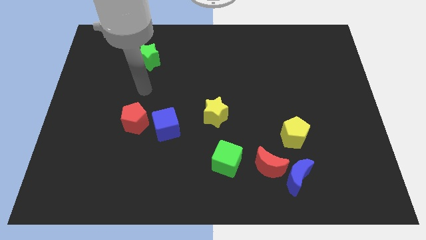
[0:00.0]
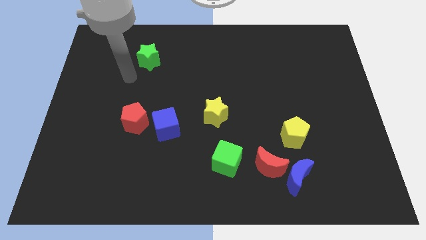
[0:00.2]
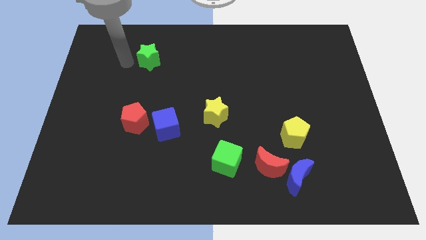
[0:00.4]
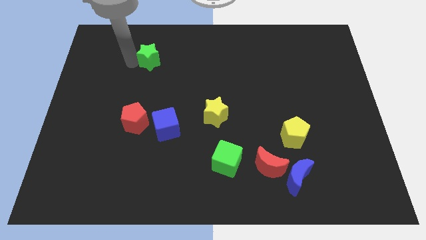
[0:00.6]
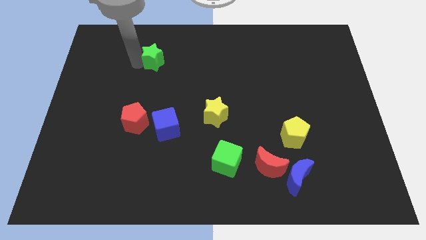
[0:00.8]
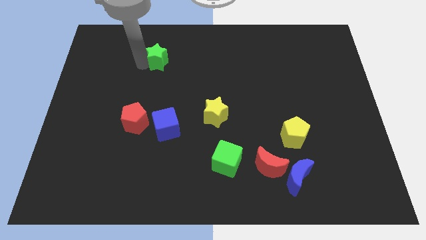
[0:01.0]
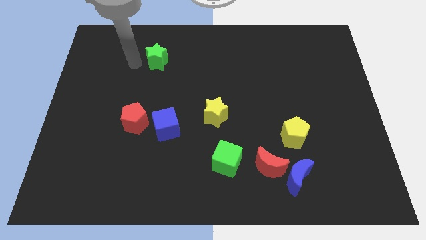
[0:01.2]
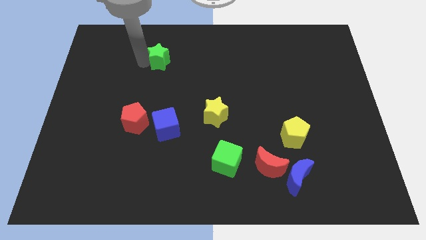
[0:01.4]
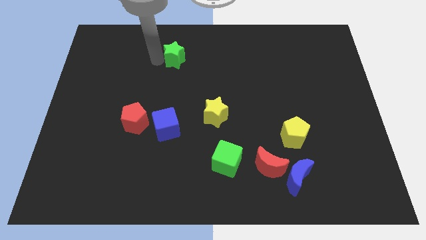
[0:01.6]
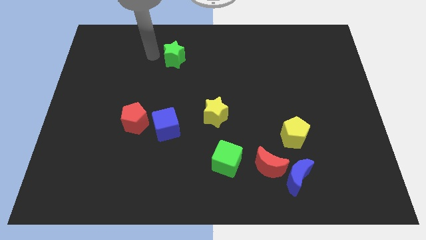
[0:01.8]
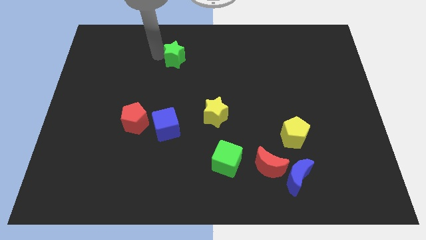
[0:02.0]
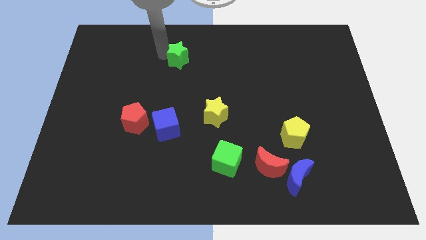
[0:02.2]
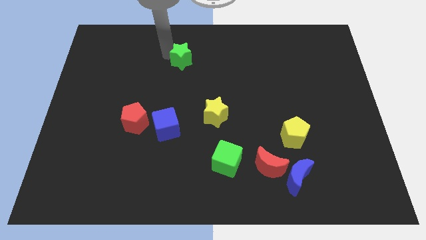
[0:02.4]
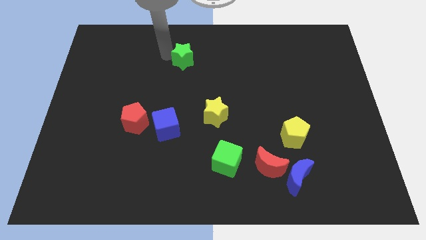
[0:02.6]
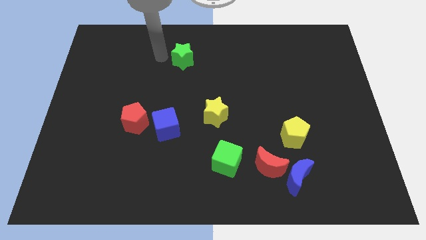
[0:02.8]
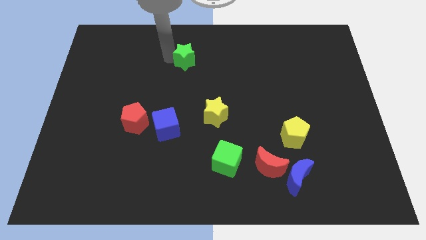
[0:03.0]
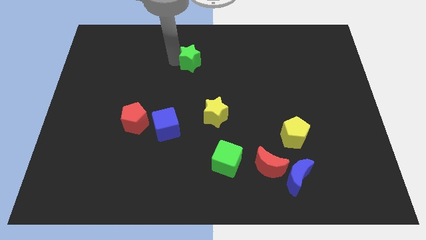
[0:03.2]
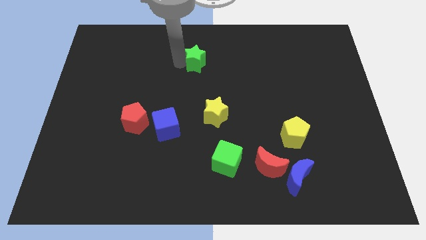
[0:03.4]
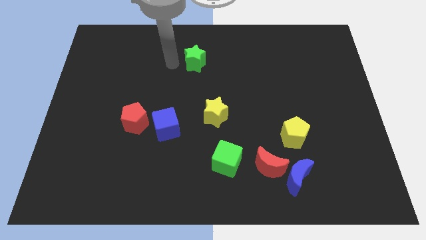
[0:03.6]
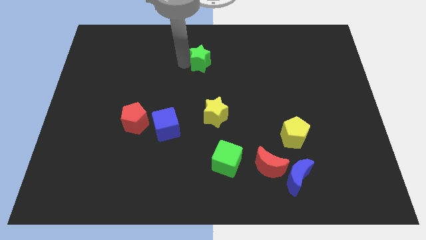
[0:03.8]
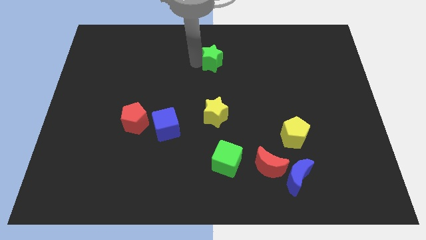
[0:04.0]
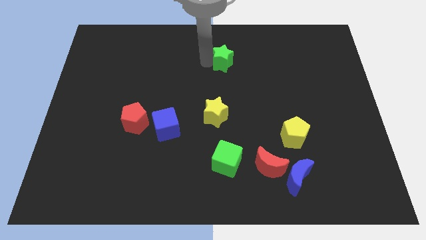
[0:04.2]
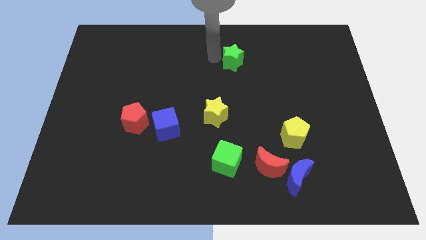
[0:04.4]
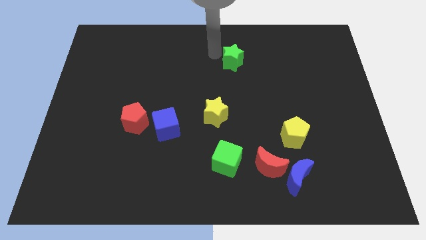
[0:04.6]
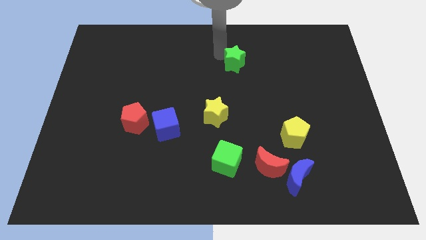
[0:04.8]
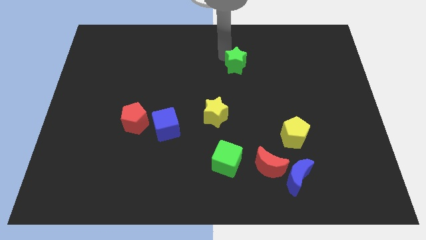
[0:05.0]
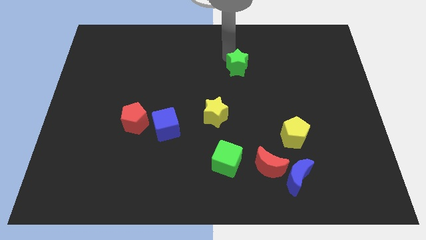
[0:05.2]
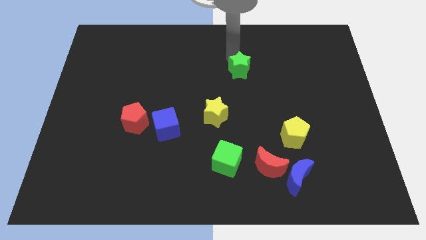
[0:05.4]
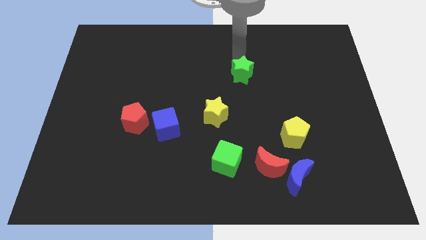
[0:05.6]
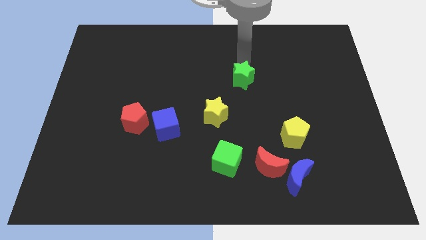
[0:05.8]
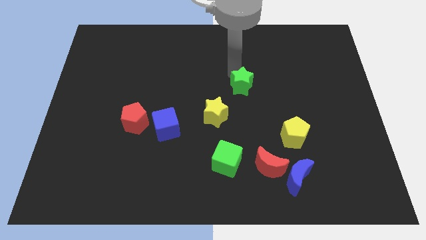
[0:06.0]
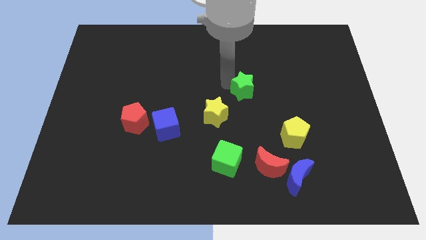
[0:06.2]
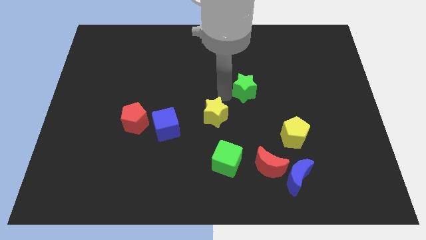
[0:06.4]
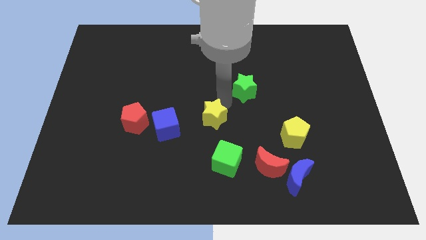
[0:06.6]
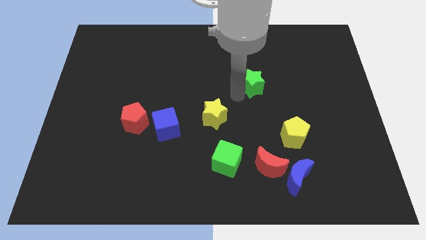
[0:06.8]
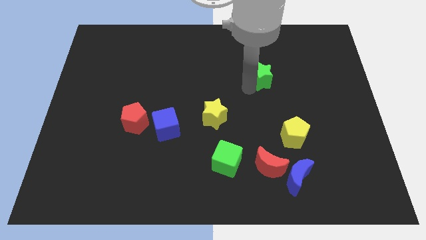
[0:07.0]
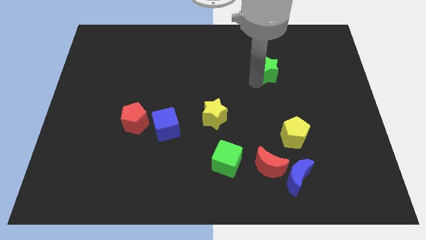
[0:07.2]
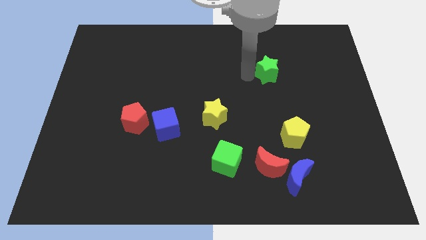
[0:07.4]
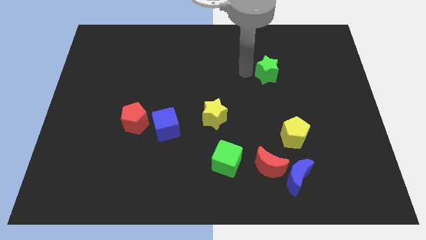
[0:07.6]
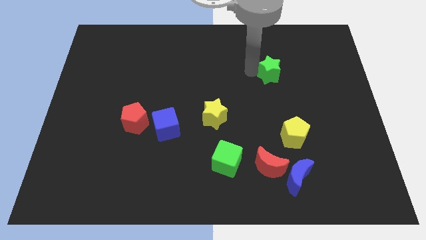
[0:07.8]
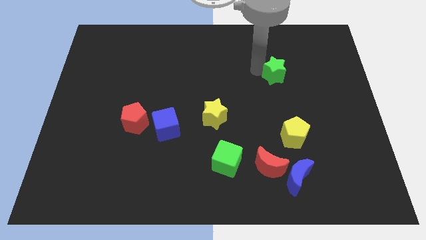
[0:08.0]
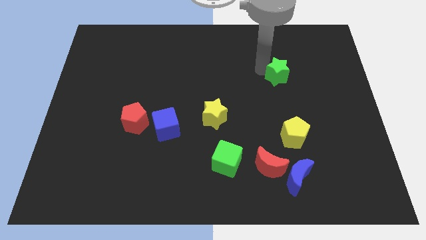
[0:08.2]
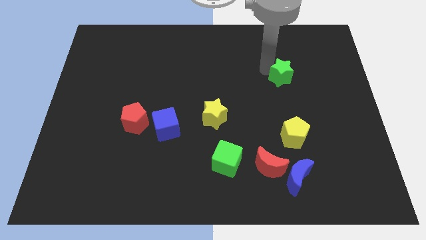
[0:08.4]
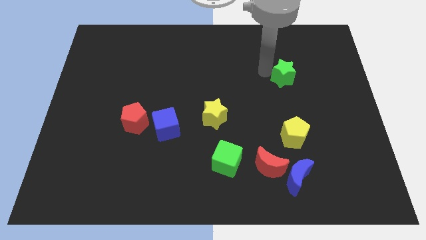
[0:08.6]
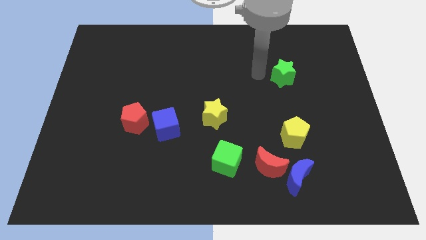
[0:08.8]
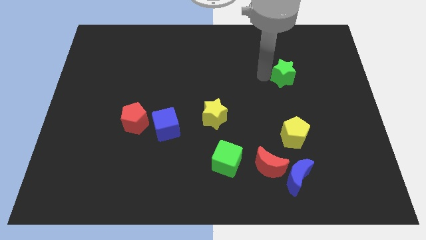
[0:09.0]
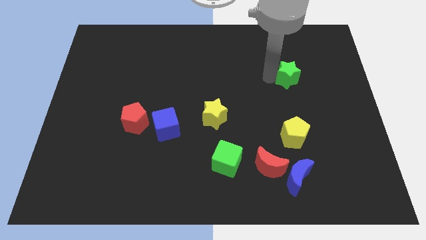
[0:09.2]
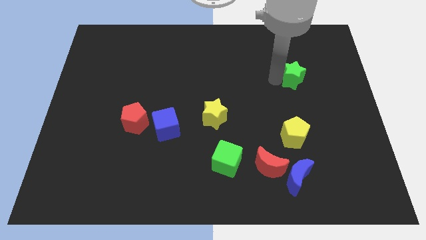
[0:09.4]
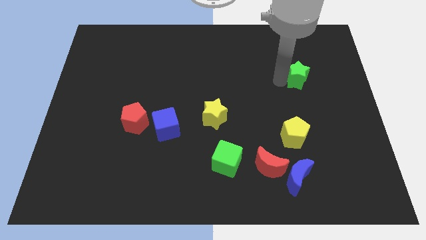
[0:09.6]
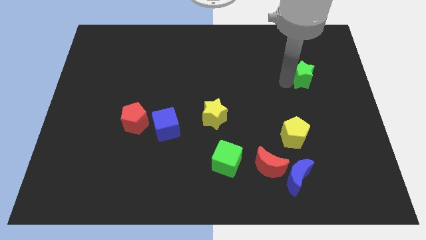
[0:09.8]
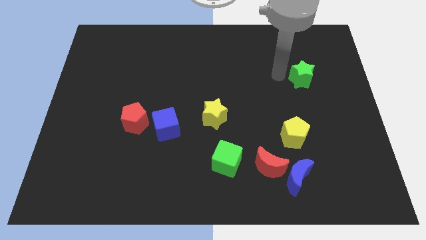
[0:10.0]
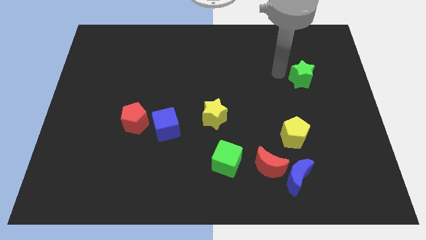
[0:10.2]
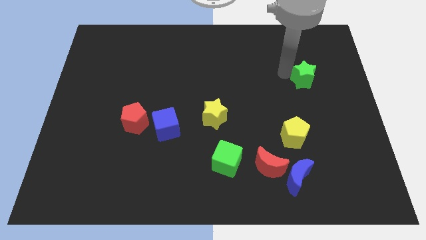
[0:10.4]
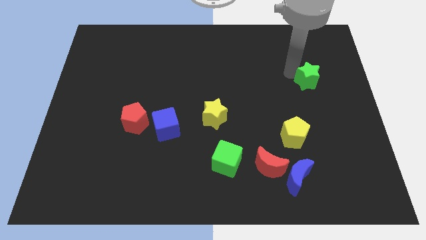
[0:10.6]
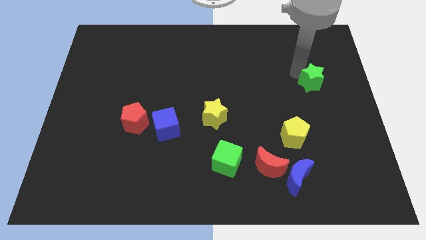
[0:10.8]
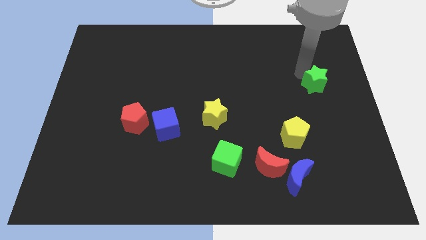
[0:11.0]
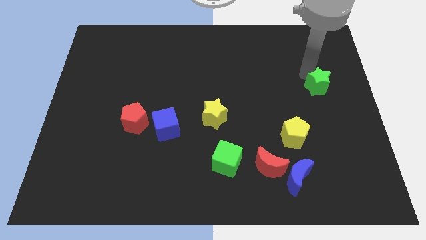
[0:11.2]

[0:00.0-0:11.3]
move the green star to the right side of the board
